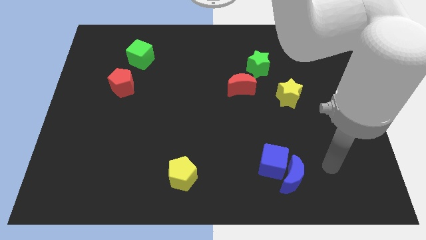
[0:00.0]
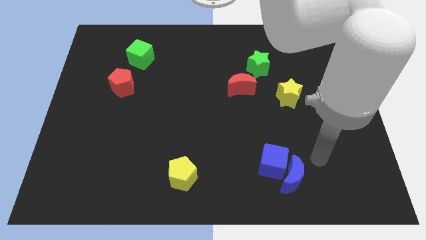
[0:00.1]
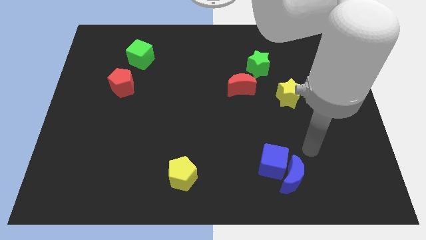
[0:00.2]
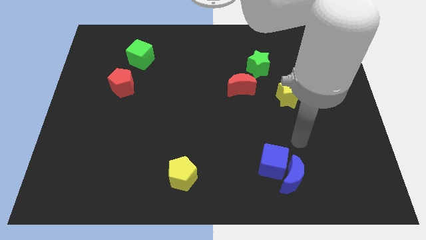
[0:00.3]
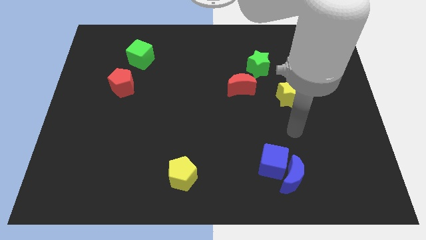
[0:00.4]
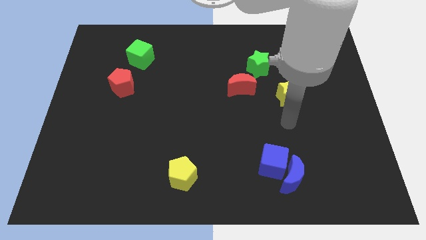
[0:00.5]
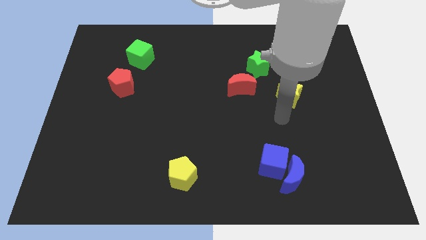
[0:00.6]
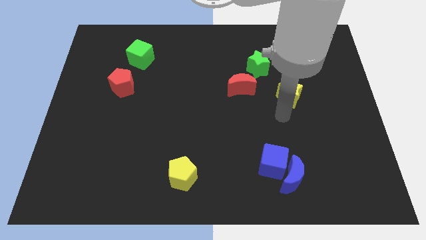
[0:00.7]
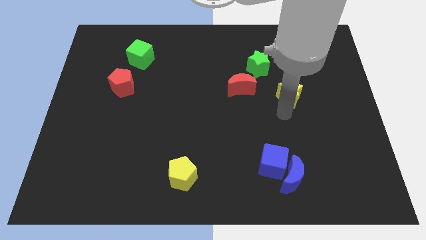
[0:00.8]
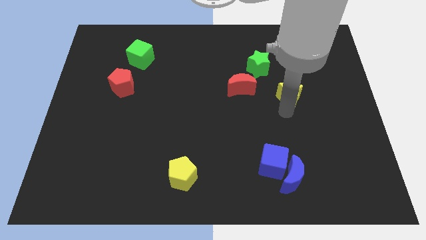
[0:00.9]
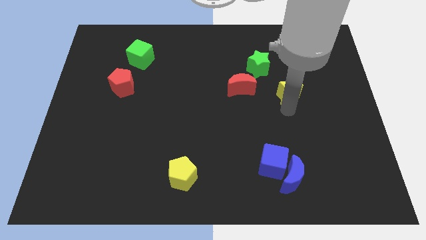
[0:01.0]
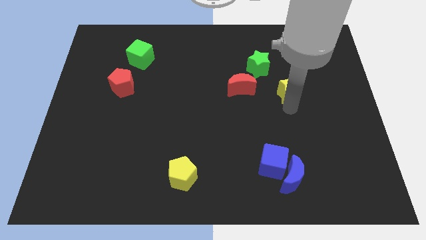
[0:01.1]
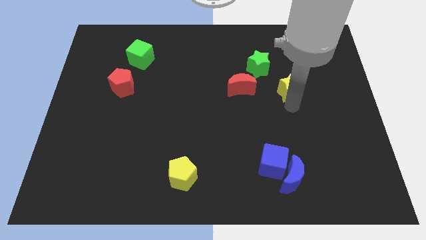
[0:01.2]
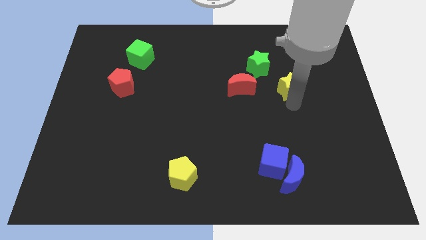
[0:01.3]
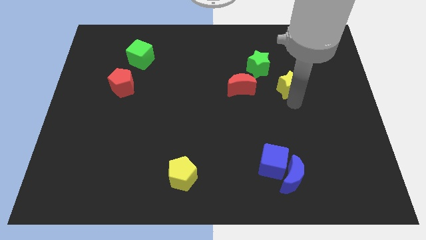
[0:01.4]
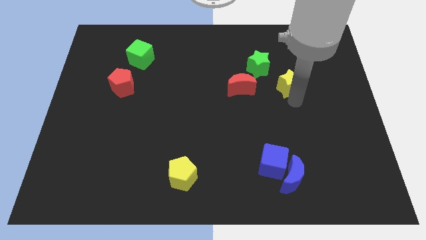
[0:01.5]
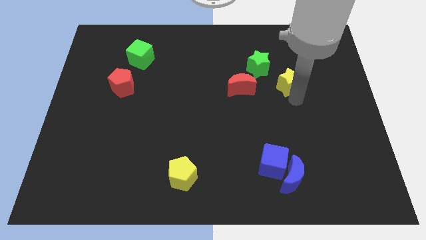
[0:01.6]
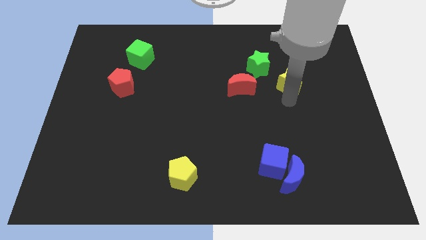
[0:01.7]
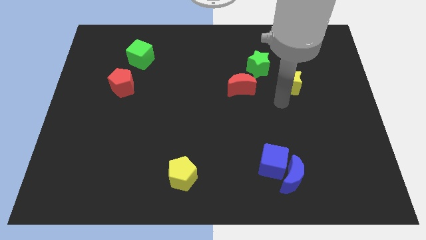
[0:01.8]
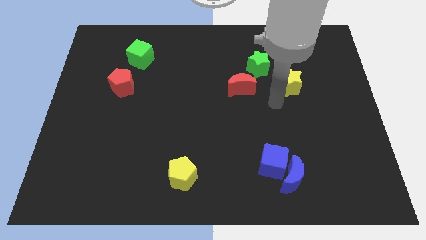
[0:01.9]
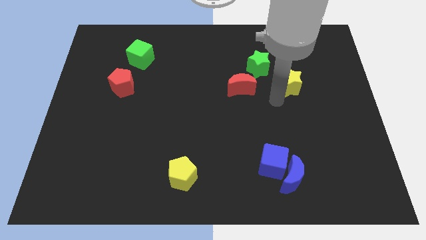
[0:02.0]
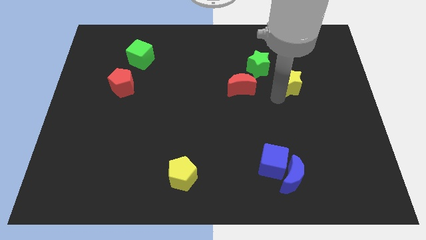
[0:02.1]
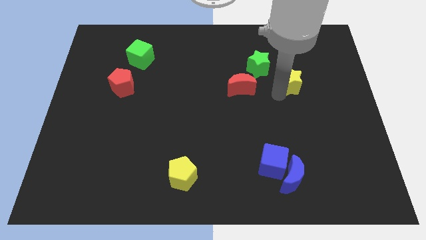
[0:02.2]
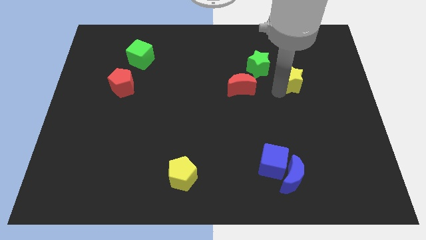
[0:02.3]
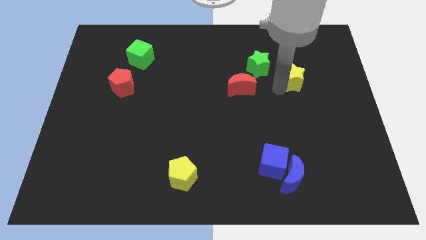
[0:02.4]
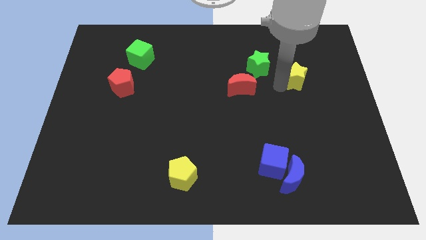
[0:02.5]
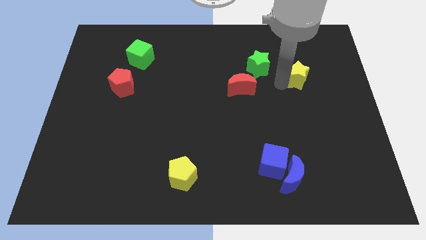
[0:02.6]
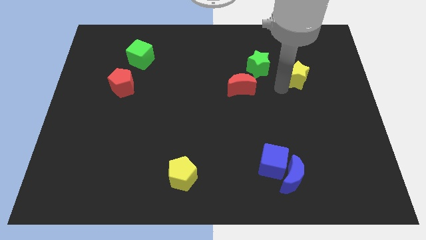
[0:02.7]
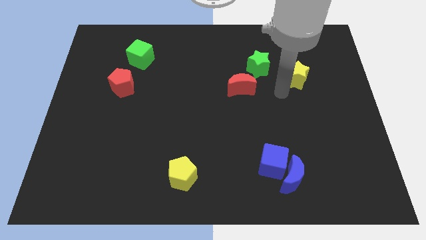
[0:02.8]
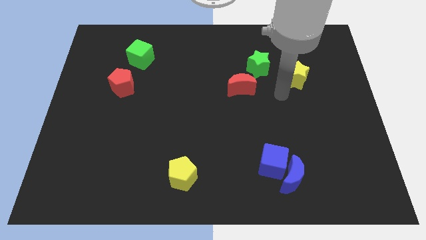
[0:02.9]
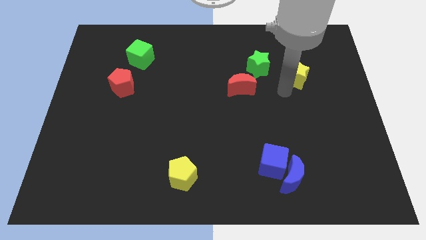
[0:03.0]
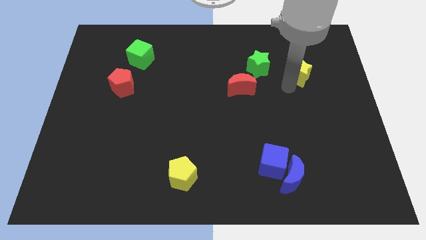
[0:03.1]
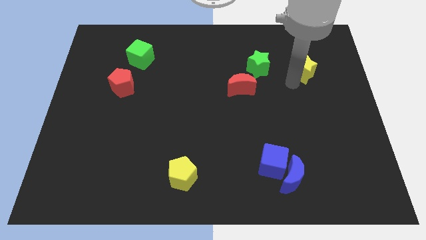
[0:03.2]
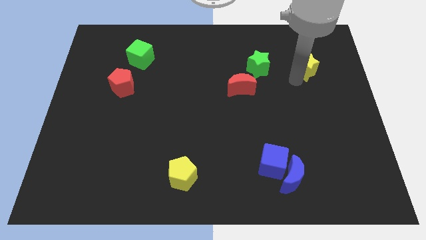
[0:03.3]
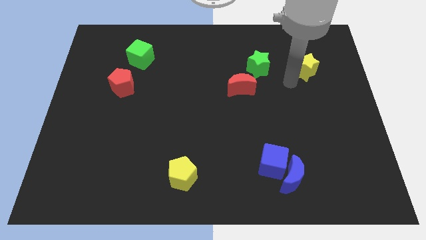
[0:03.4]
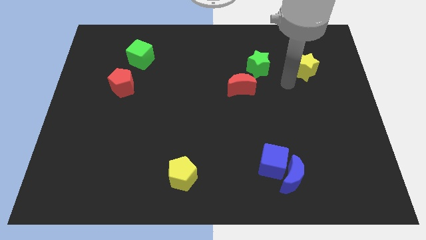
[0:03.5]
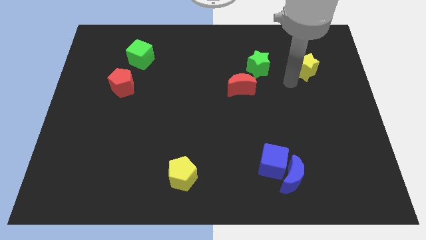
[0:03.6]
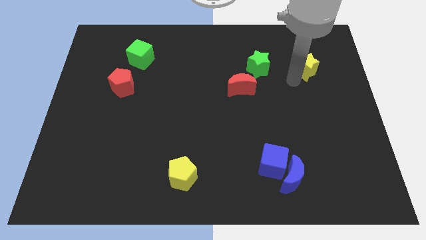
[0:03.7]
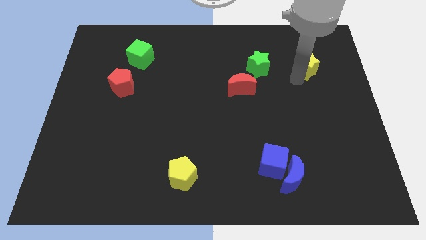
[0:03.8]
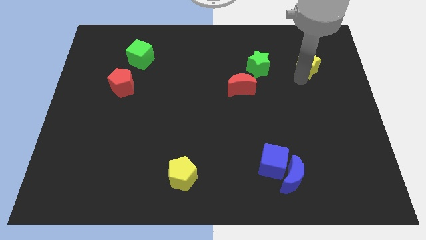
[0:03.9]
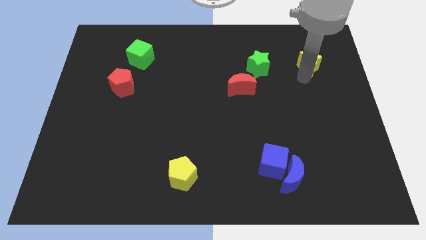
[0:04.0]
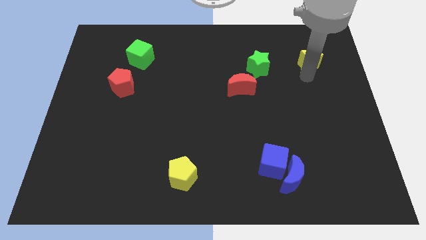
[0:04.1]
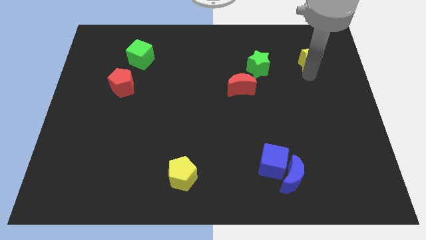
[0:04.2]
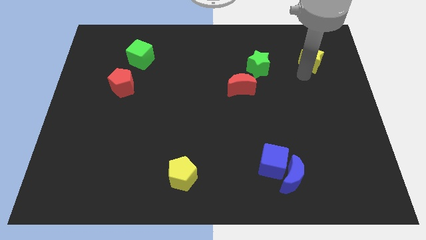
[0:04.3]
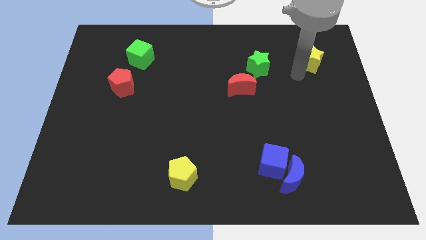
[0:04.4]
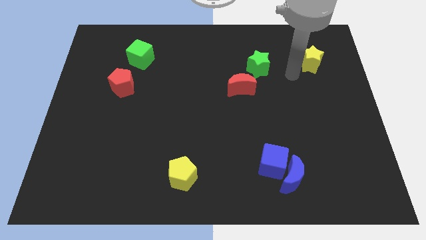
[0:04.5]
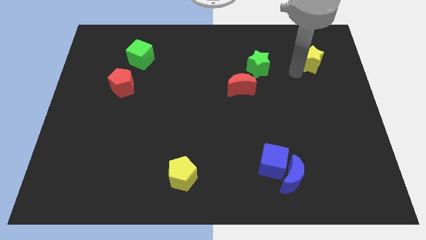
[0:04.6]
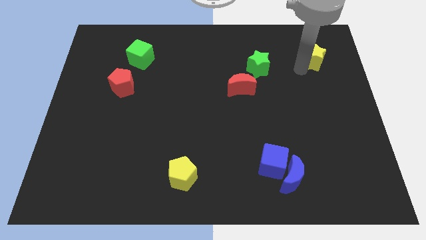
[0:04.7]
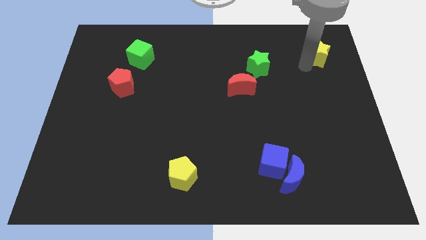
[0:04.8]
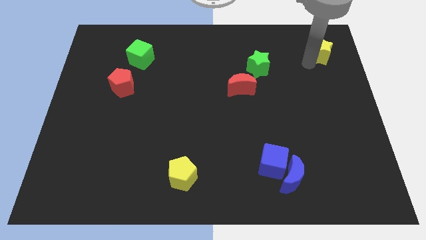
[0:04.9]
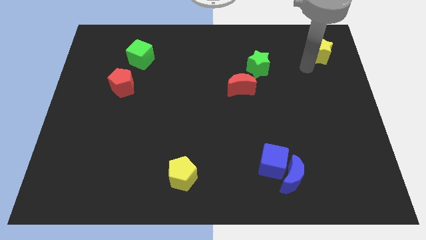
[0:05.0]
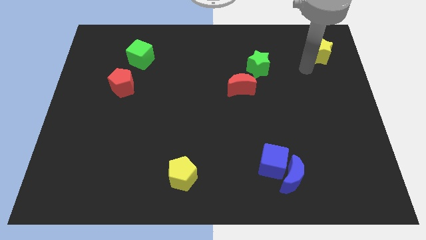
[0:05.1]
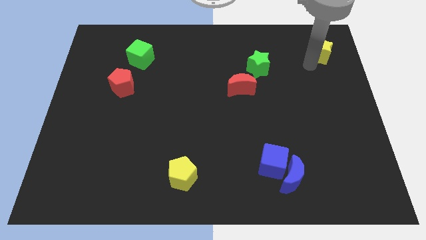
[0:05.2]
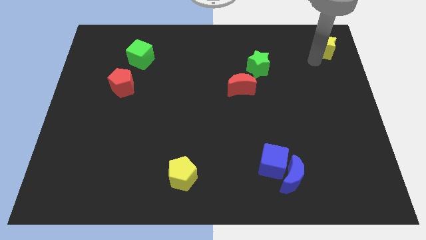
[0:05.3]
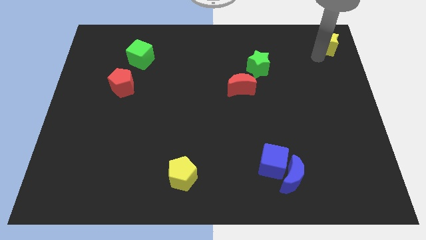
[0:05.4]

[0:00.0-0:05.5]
put the yellow star to the top right

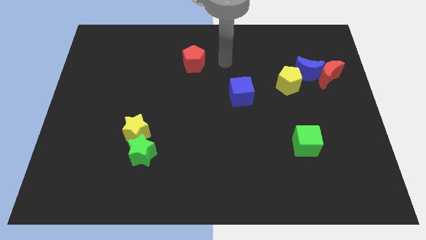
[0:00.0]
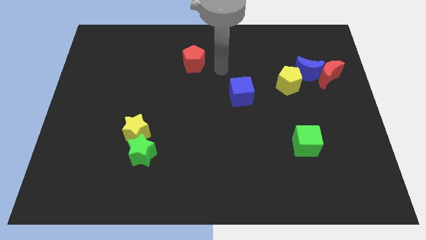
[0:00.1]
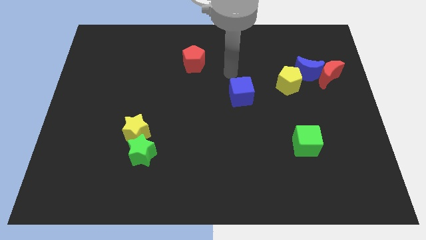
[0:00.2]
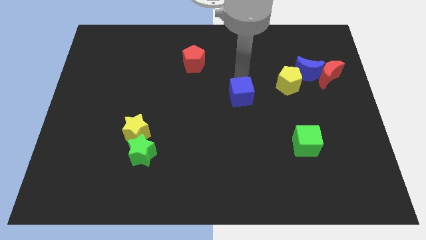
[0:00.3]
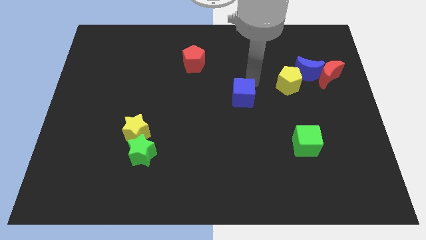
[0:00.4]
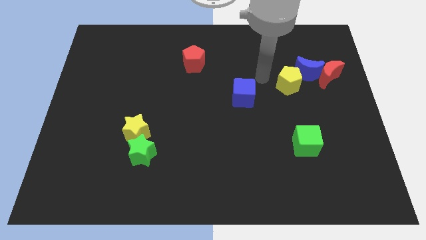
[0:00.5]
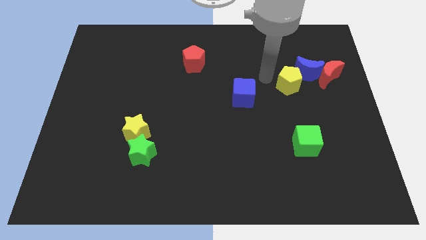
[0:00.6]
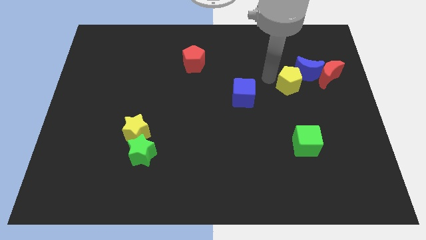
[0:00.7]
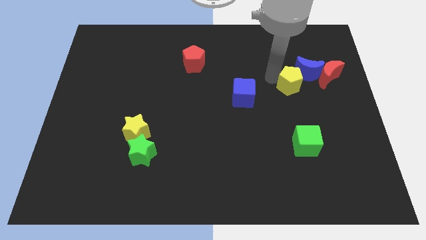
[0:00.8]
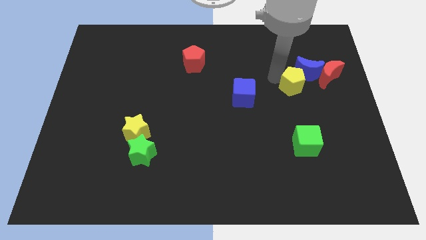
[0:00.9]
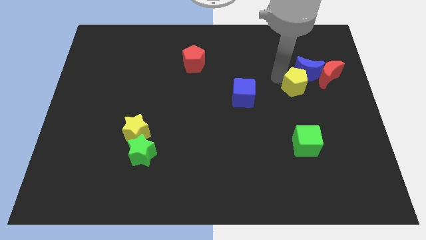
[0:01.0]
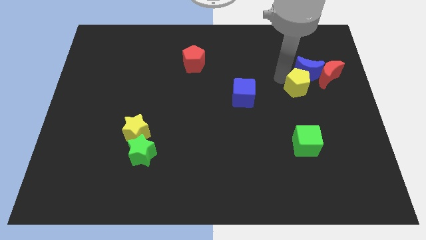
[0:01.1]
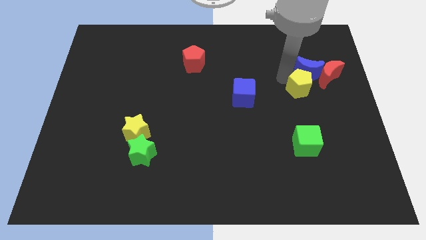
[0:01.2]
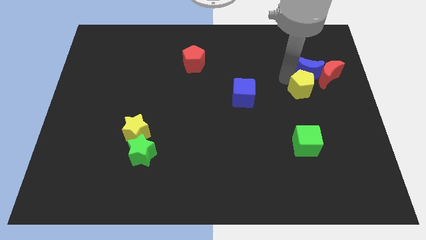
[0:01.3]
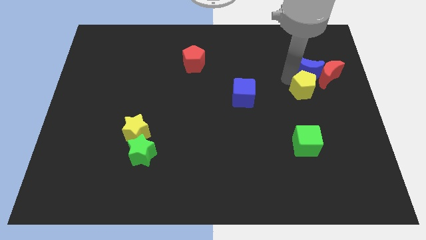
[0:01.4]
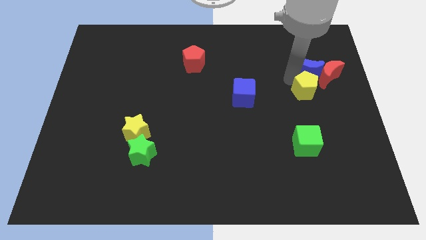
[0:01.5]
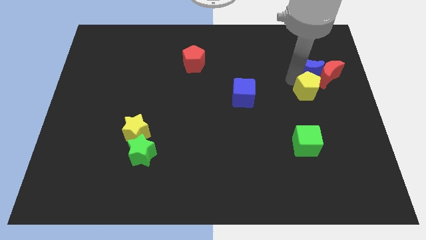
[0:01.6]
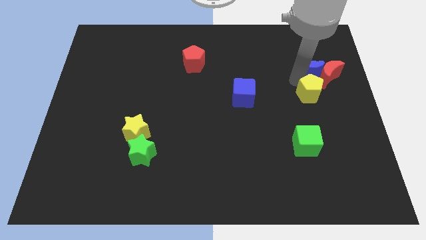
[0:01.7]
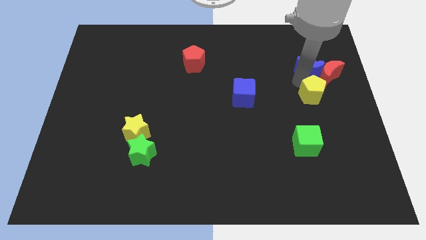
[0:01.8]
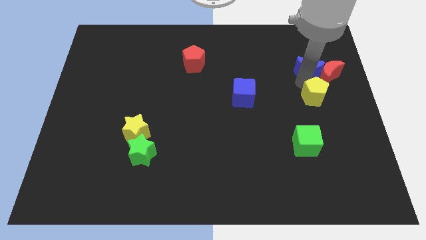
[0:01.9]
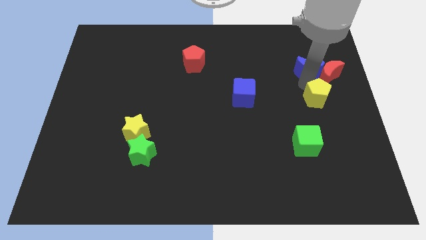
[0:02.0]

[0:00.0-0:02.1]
put the yellow pentagon to the center right
